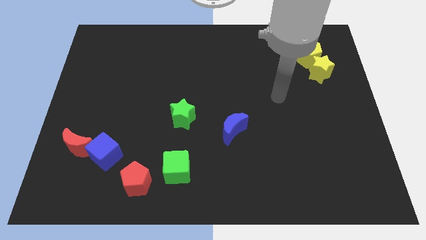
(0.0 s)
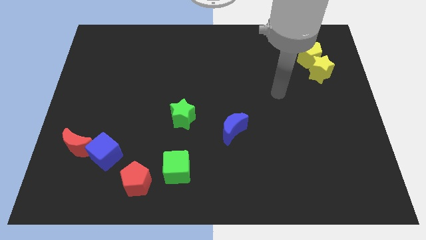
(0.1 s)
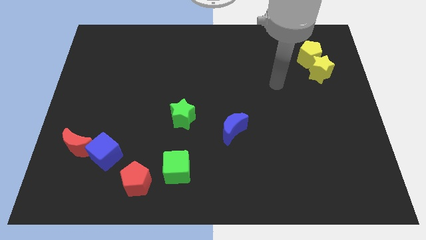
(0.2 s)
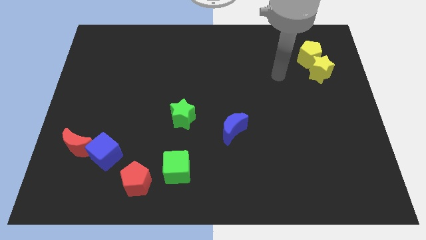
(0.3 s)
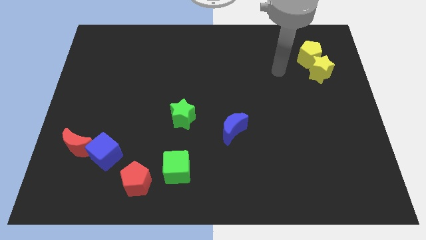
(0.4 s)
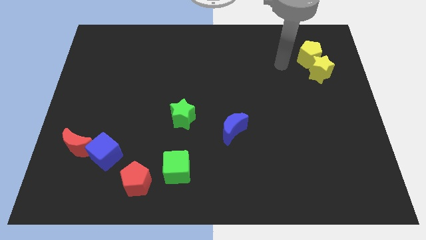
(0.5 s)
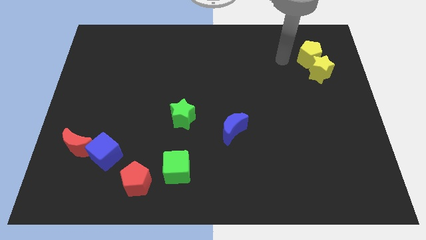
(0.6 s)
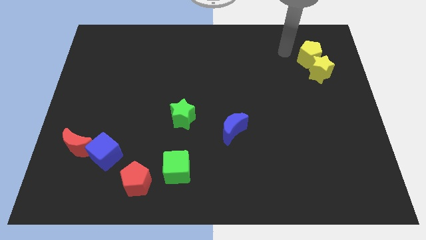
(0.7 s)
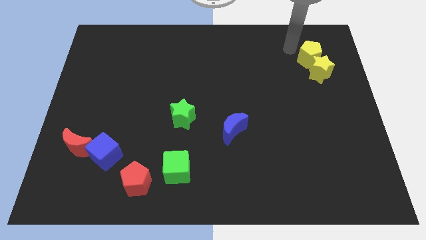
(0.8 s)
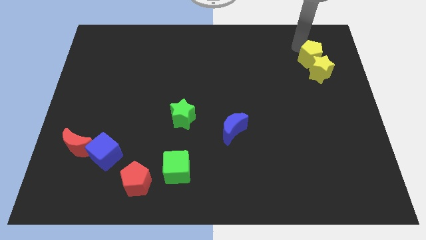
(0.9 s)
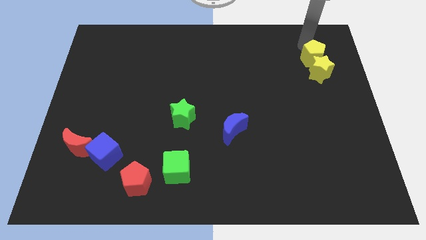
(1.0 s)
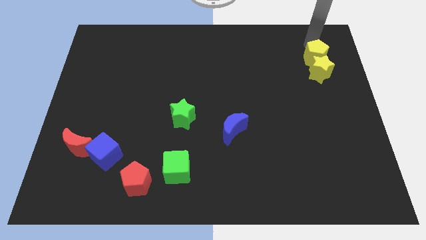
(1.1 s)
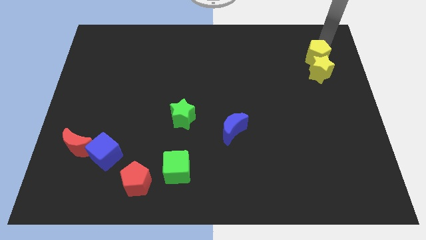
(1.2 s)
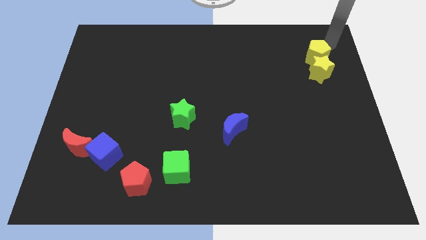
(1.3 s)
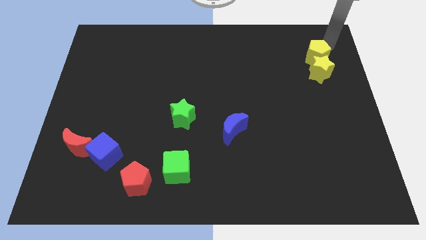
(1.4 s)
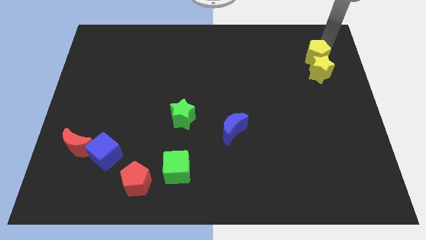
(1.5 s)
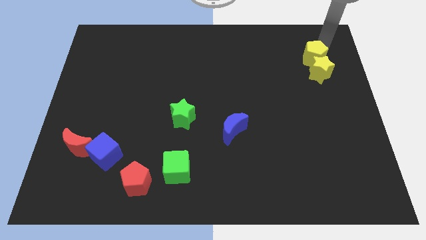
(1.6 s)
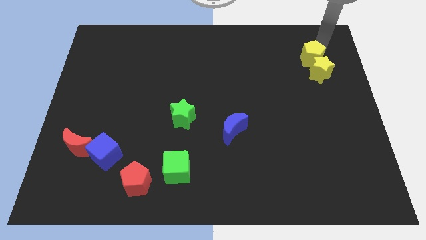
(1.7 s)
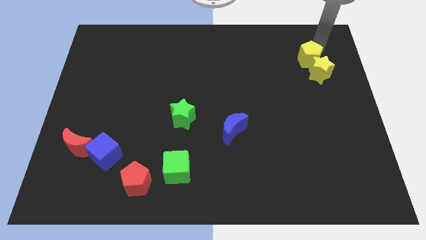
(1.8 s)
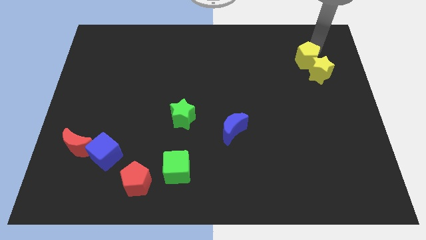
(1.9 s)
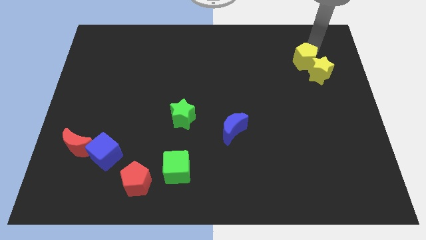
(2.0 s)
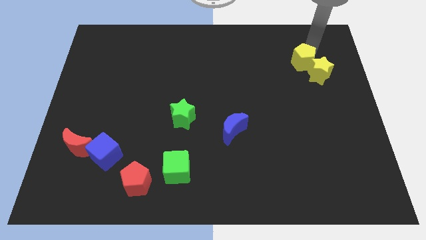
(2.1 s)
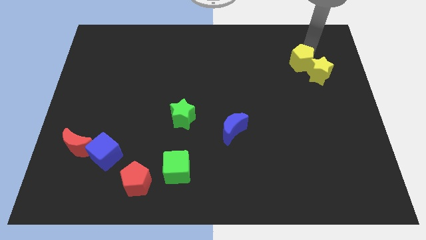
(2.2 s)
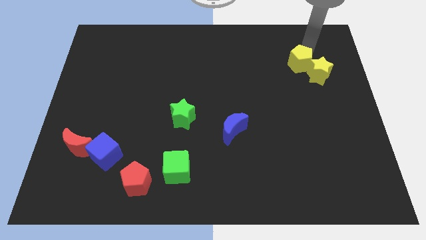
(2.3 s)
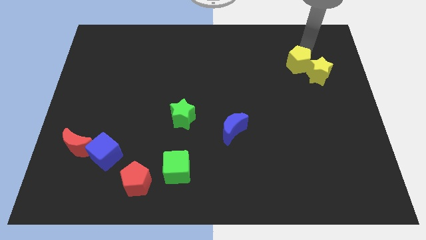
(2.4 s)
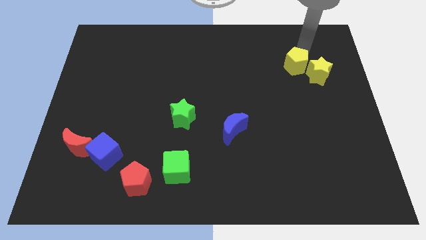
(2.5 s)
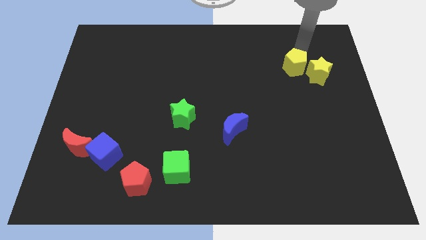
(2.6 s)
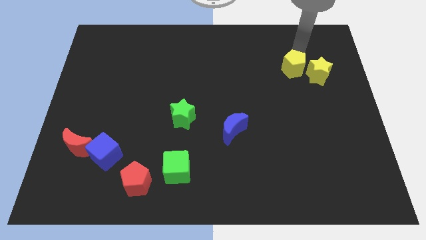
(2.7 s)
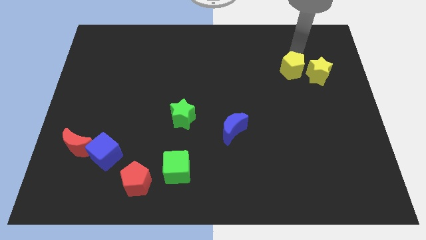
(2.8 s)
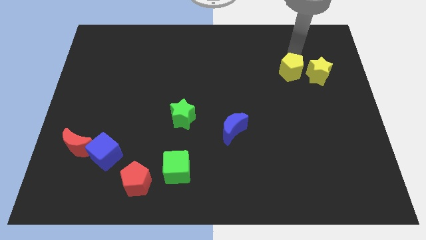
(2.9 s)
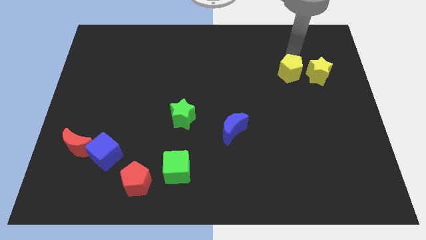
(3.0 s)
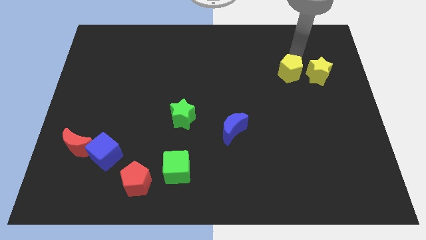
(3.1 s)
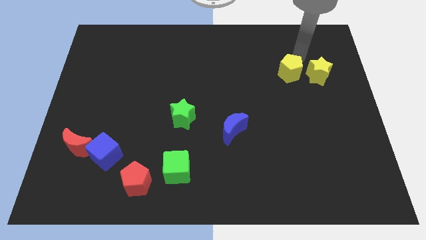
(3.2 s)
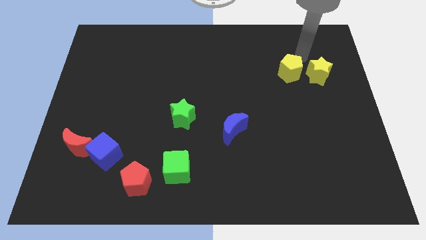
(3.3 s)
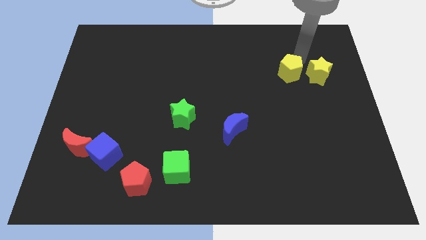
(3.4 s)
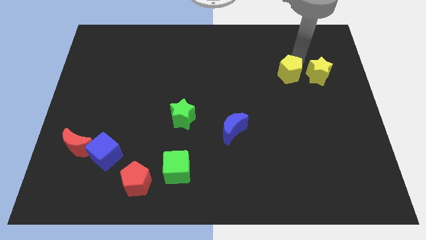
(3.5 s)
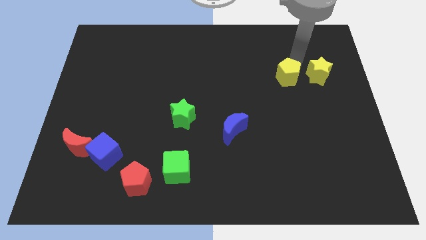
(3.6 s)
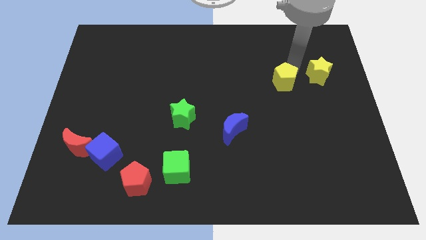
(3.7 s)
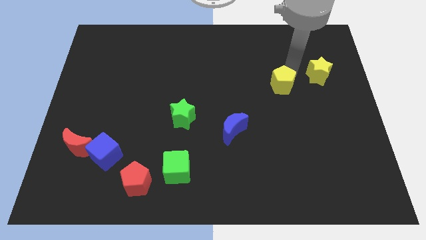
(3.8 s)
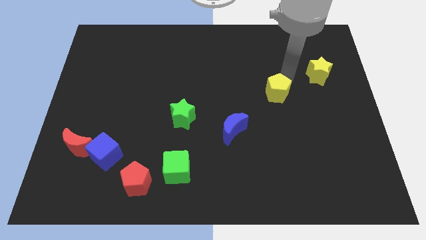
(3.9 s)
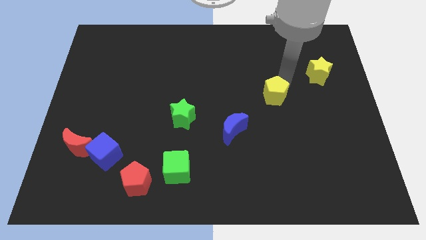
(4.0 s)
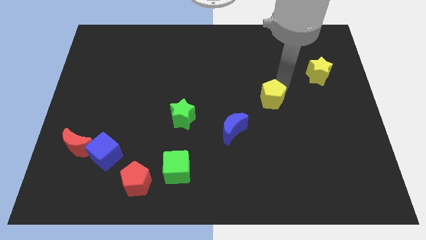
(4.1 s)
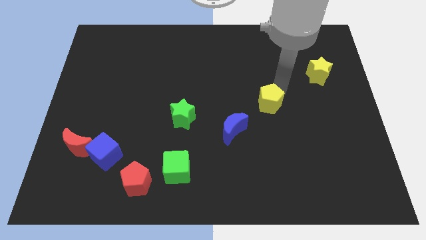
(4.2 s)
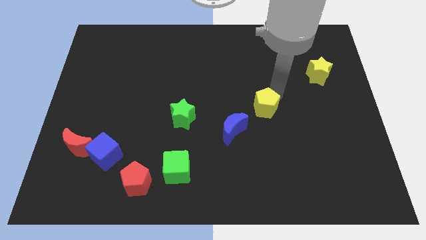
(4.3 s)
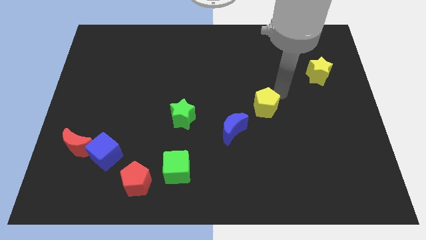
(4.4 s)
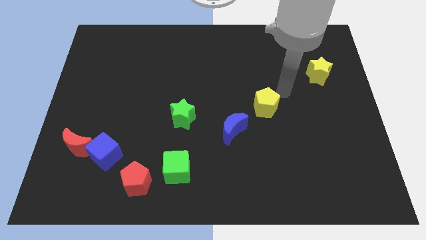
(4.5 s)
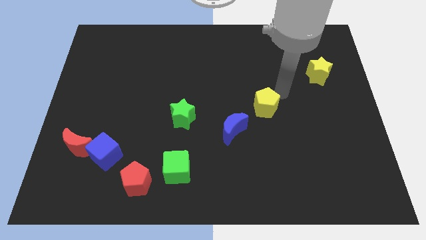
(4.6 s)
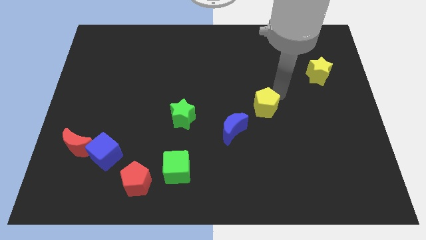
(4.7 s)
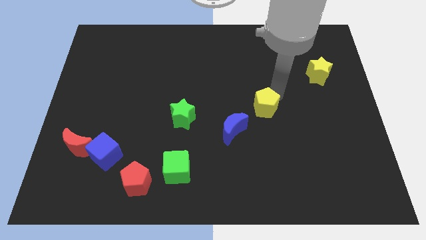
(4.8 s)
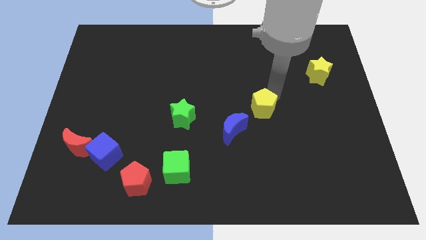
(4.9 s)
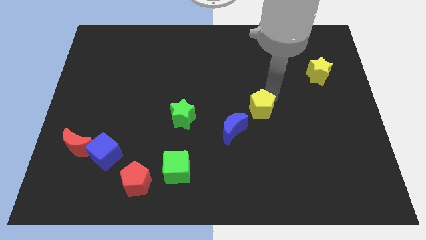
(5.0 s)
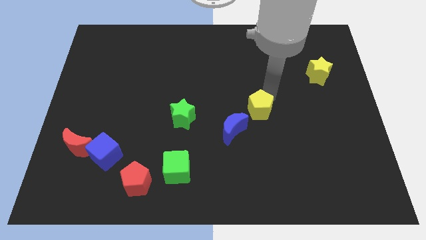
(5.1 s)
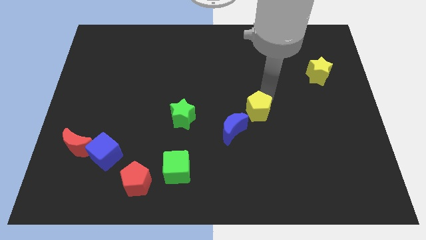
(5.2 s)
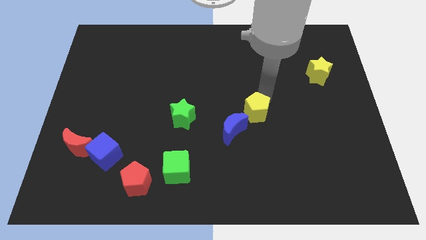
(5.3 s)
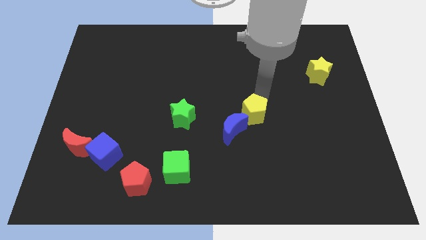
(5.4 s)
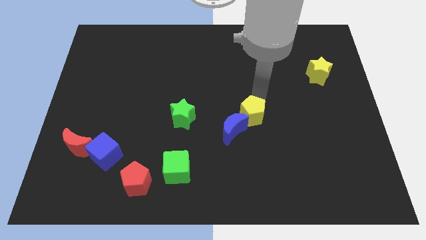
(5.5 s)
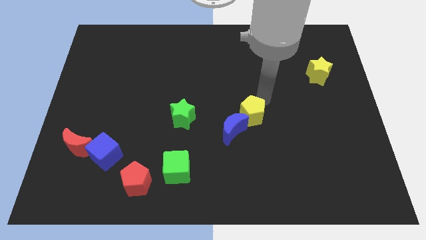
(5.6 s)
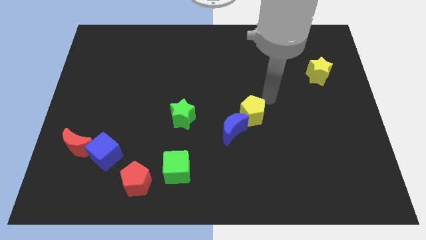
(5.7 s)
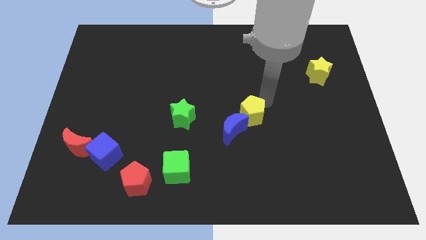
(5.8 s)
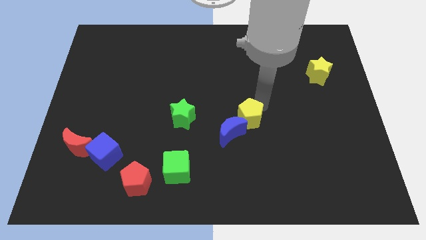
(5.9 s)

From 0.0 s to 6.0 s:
slide the yellow pentagon towards the blue moon

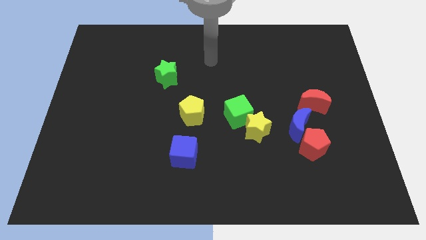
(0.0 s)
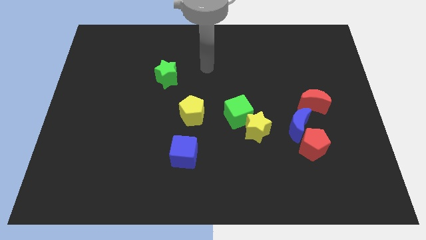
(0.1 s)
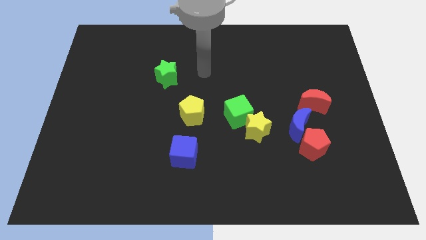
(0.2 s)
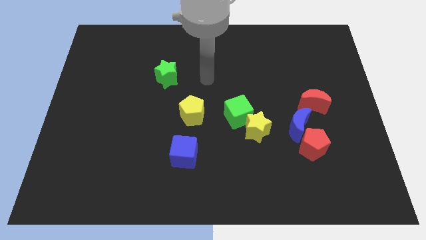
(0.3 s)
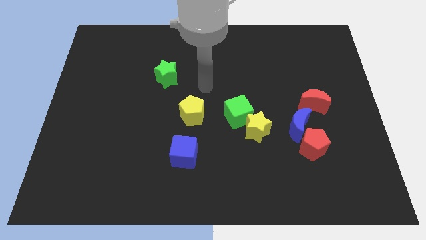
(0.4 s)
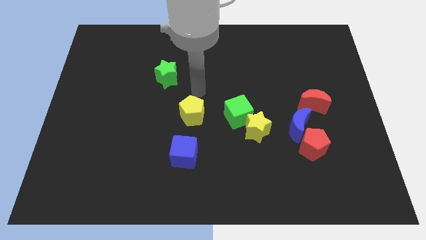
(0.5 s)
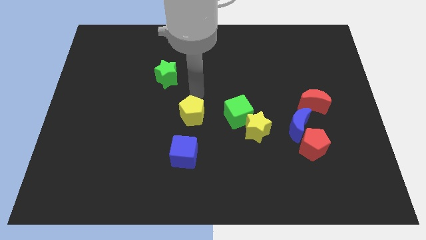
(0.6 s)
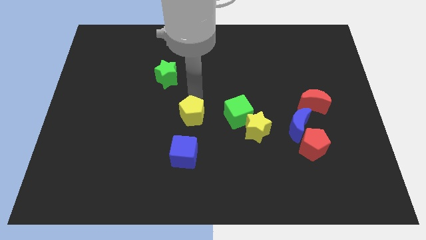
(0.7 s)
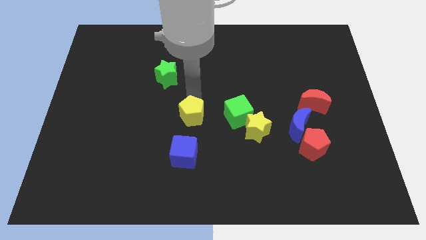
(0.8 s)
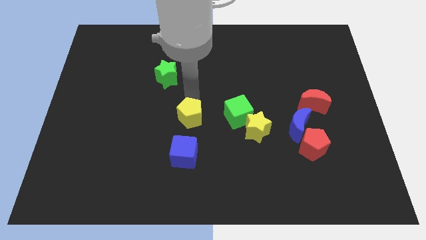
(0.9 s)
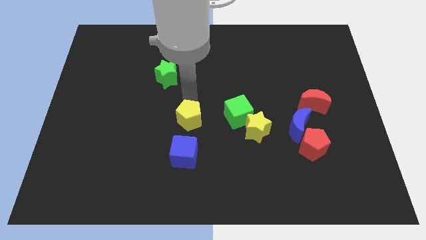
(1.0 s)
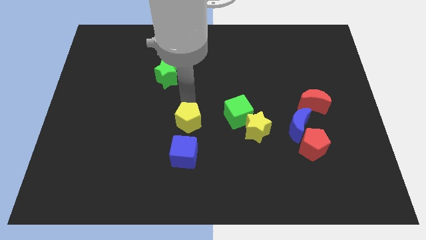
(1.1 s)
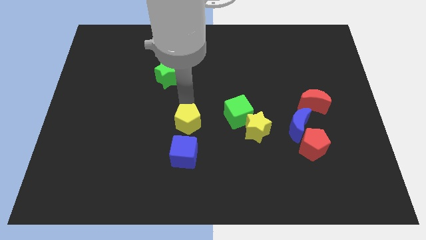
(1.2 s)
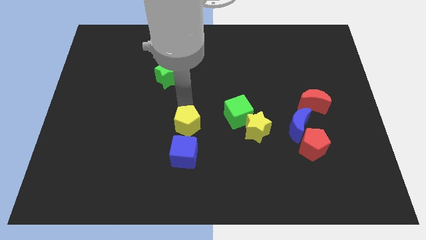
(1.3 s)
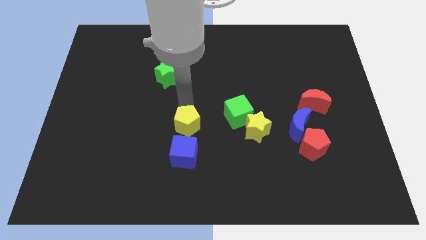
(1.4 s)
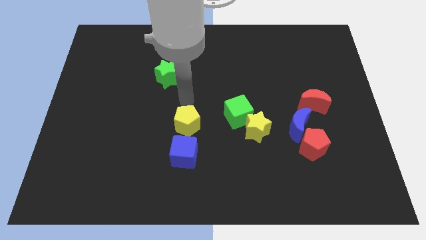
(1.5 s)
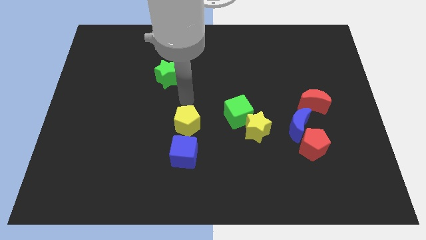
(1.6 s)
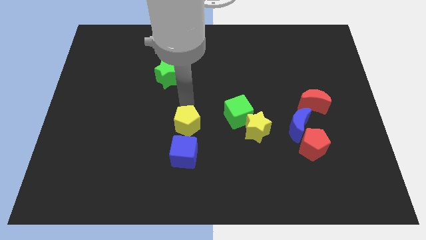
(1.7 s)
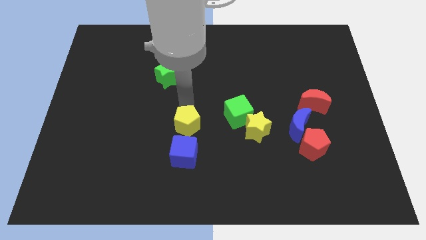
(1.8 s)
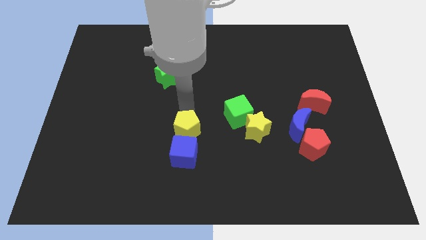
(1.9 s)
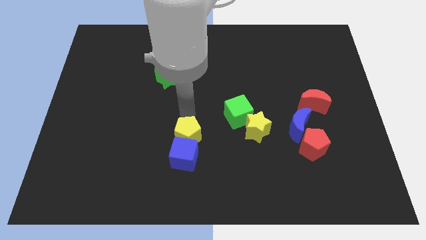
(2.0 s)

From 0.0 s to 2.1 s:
move the yellow pentagon close to the blue cube
